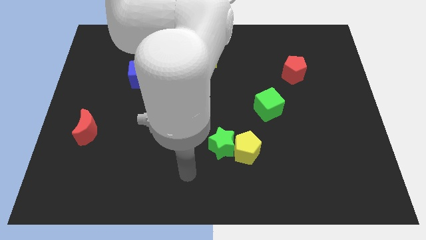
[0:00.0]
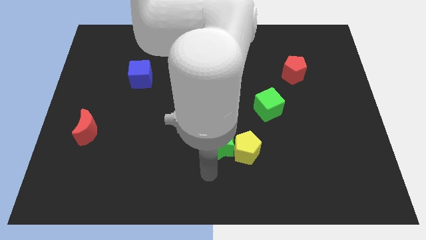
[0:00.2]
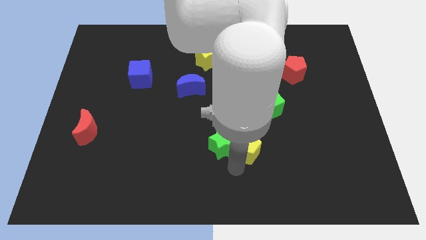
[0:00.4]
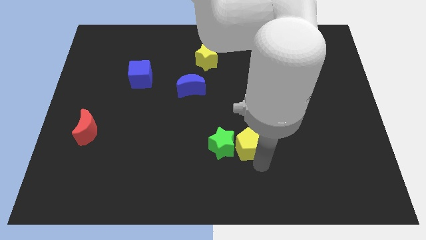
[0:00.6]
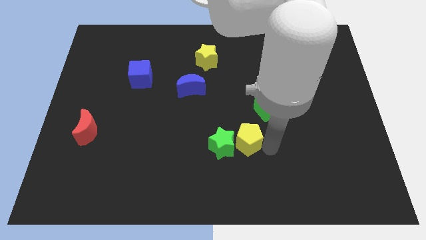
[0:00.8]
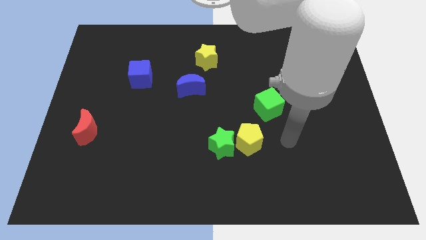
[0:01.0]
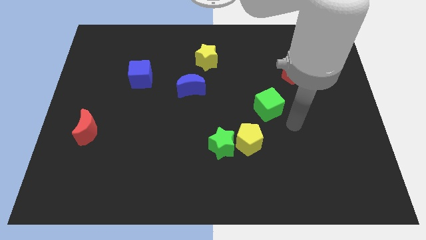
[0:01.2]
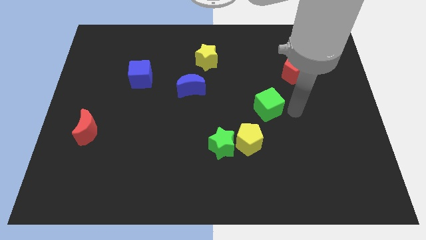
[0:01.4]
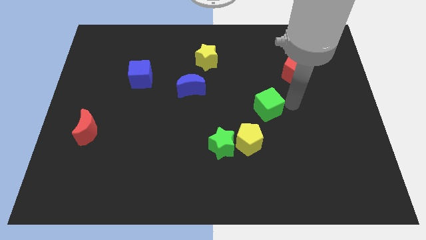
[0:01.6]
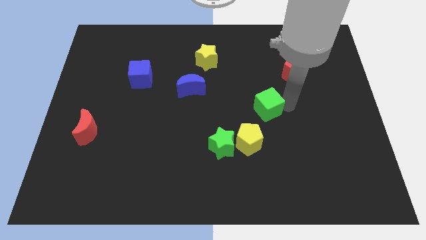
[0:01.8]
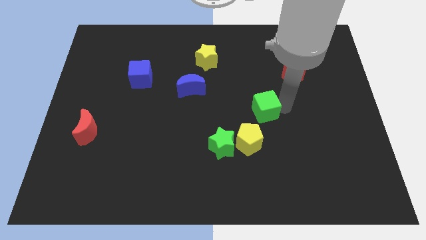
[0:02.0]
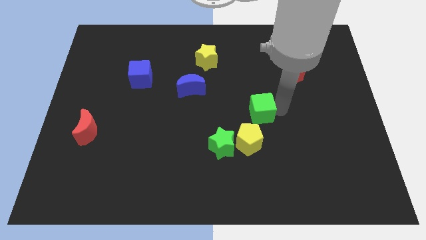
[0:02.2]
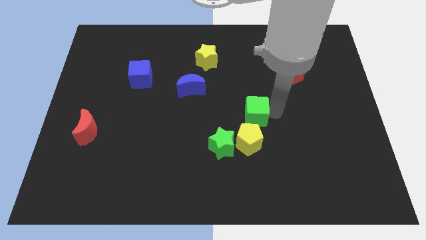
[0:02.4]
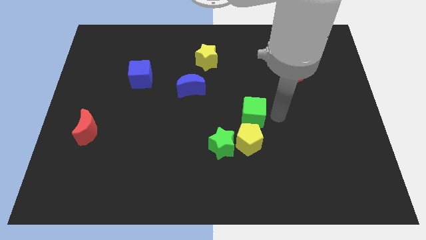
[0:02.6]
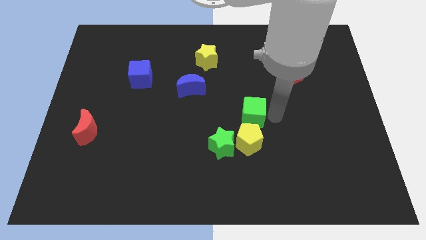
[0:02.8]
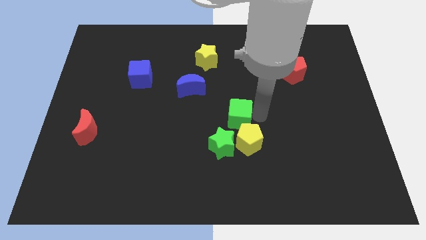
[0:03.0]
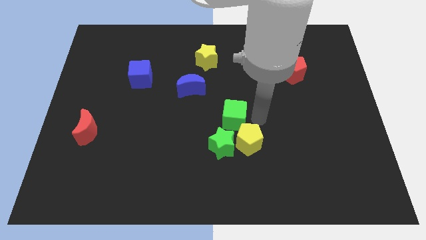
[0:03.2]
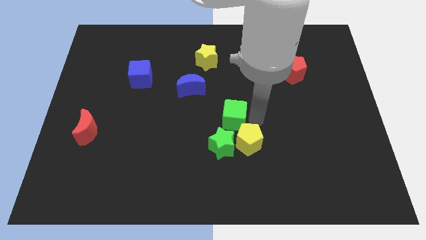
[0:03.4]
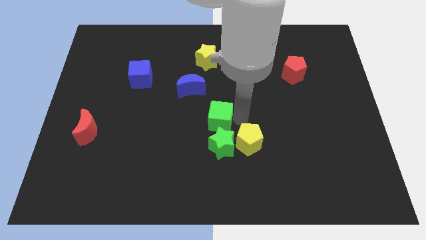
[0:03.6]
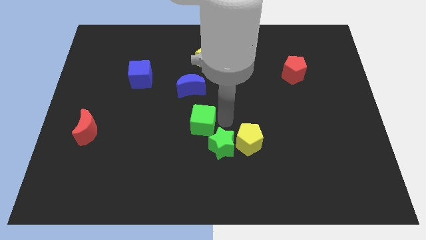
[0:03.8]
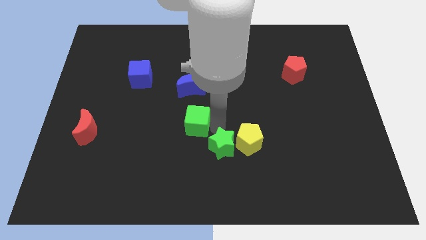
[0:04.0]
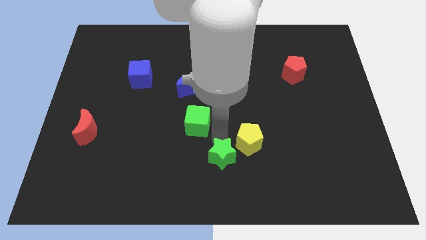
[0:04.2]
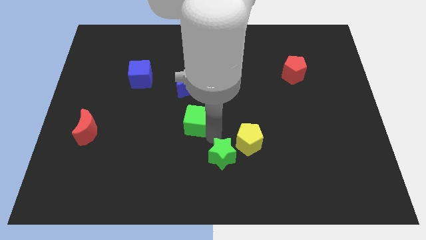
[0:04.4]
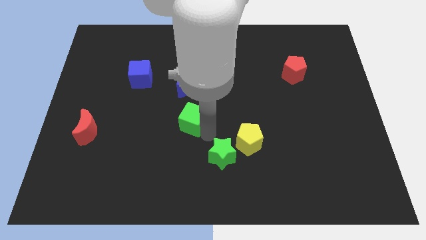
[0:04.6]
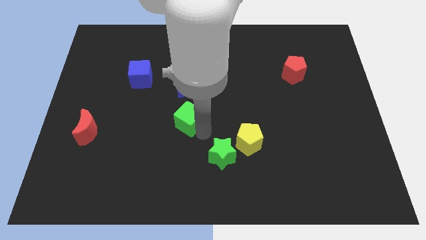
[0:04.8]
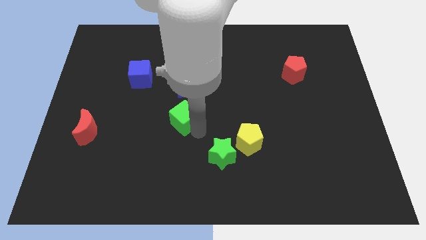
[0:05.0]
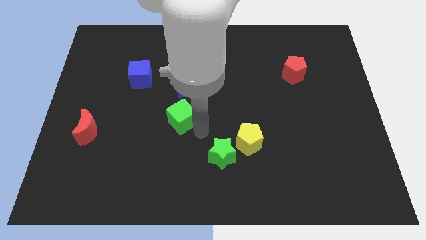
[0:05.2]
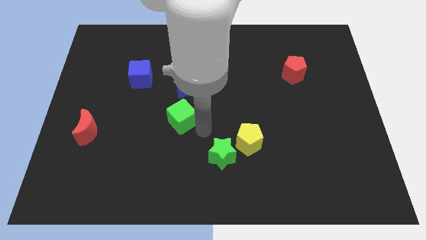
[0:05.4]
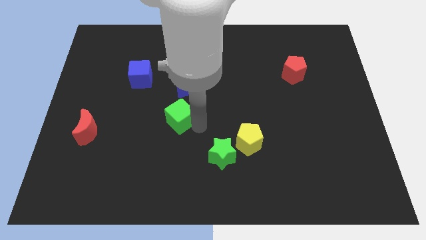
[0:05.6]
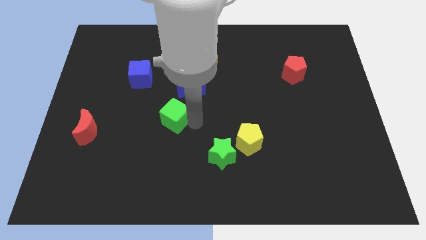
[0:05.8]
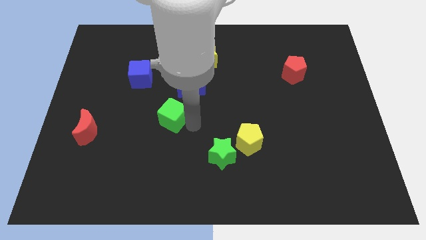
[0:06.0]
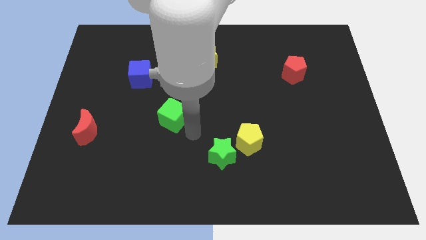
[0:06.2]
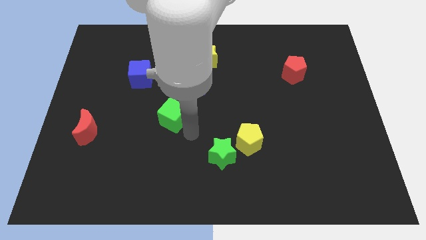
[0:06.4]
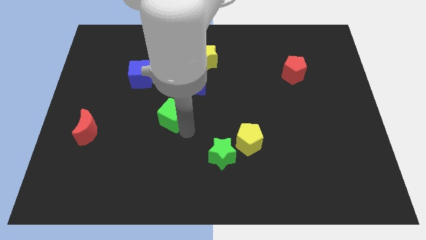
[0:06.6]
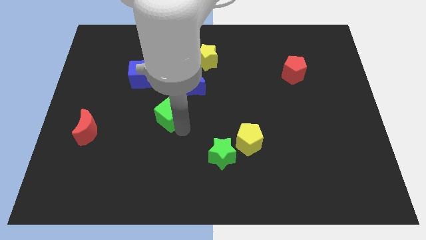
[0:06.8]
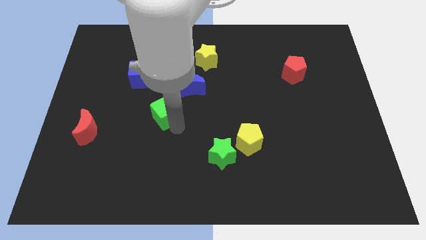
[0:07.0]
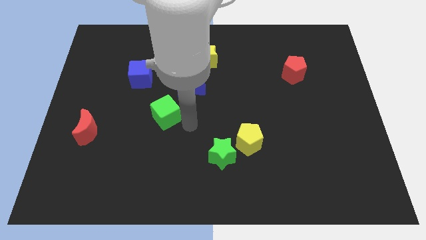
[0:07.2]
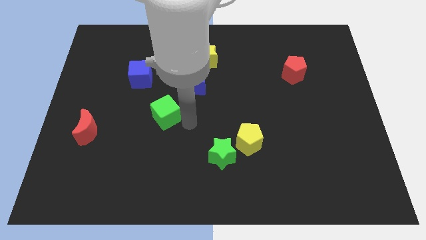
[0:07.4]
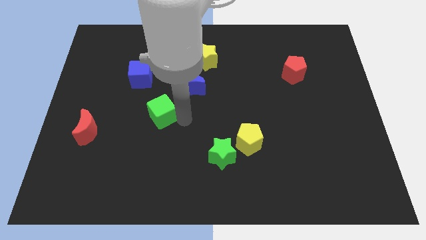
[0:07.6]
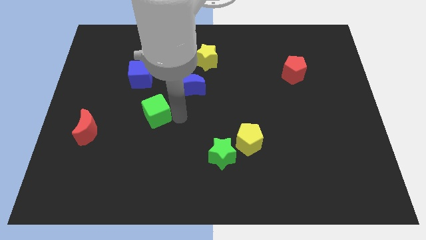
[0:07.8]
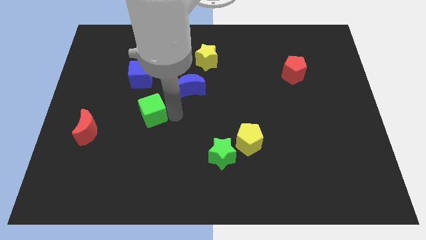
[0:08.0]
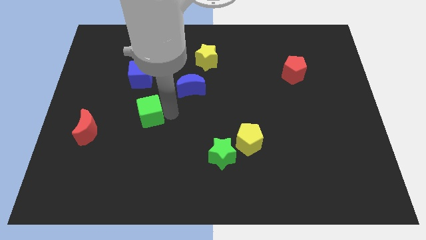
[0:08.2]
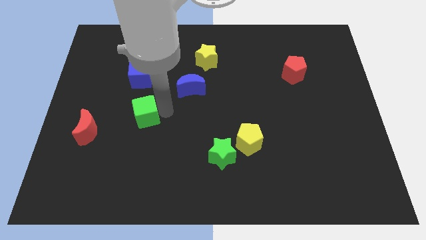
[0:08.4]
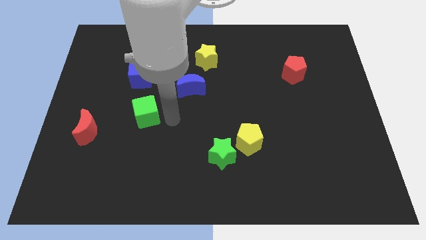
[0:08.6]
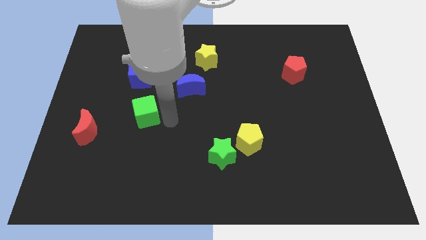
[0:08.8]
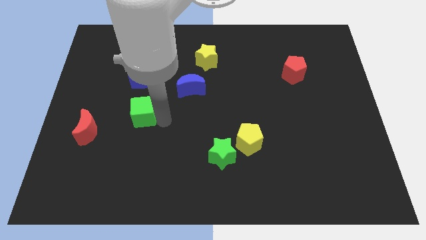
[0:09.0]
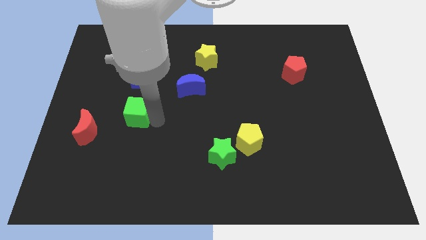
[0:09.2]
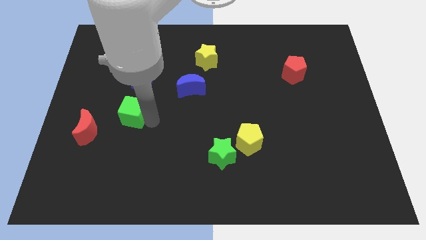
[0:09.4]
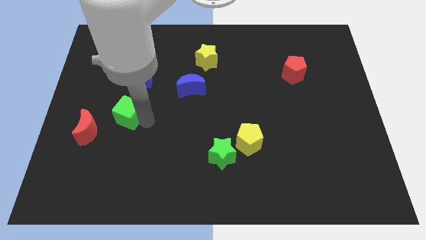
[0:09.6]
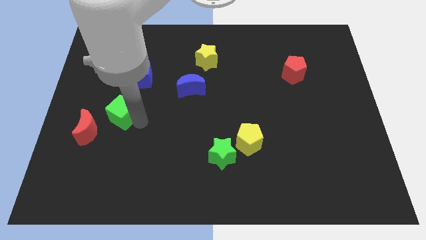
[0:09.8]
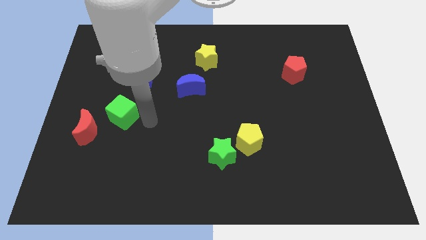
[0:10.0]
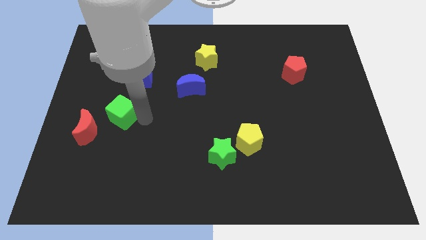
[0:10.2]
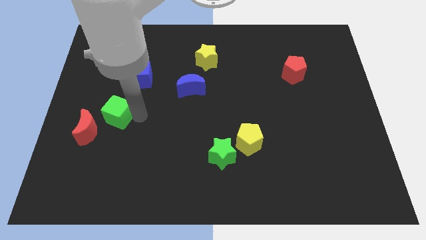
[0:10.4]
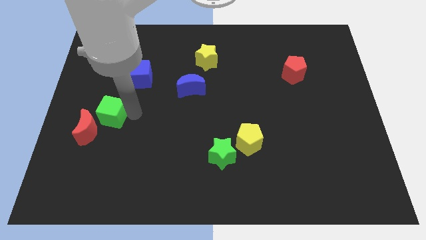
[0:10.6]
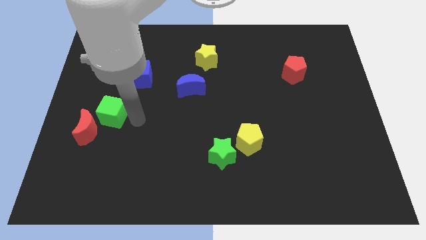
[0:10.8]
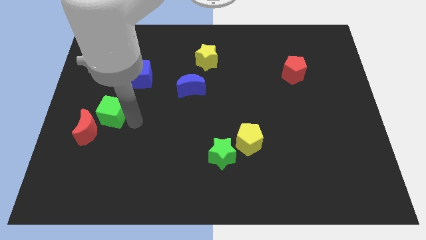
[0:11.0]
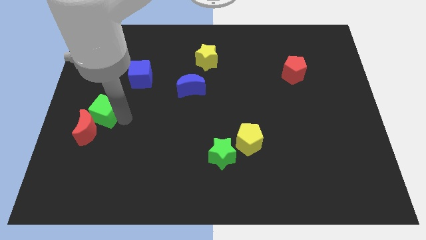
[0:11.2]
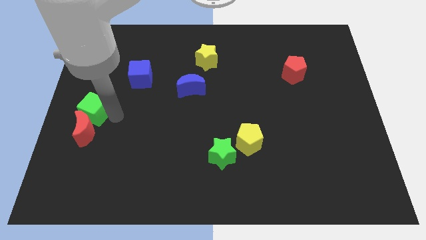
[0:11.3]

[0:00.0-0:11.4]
push the green cube to the left side
